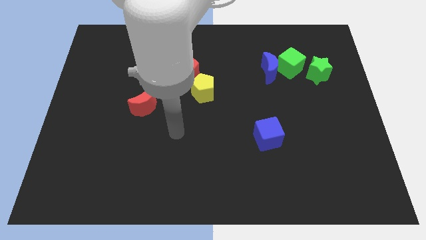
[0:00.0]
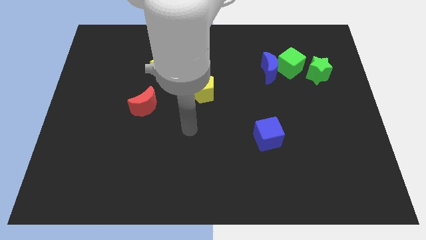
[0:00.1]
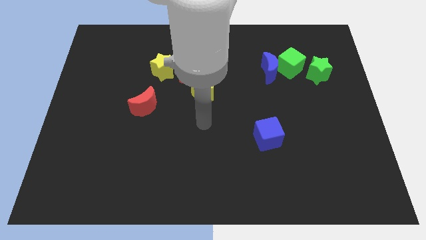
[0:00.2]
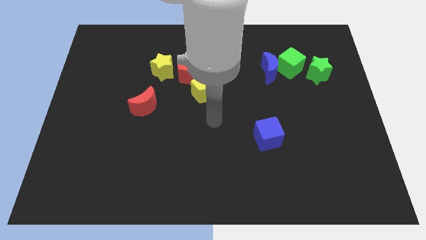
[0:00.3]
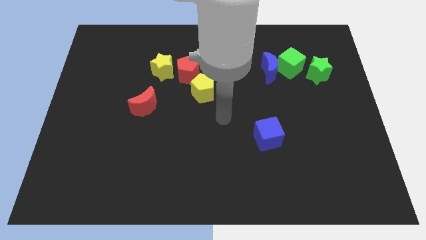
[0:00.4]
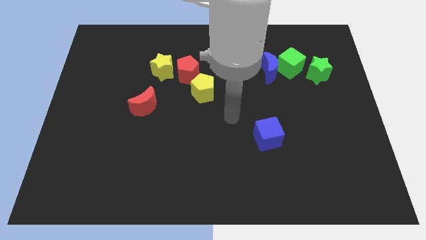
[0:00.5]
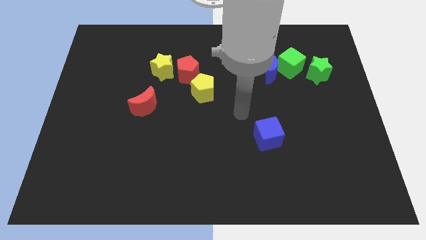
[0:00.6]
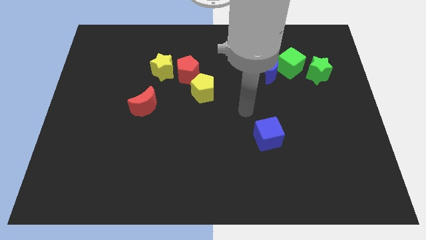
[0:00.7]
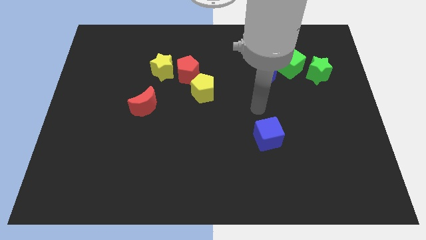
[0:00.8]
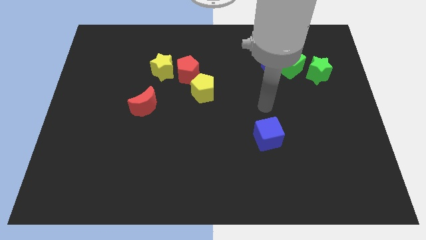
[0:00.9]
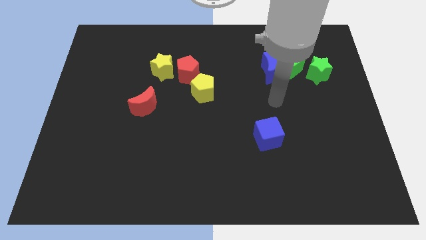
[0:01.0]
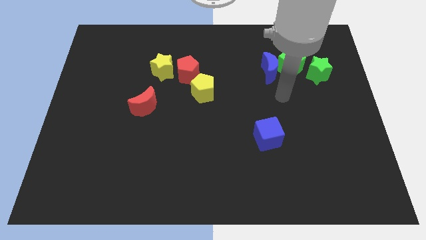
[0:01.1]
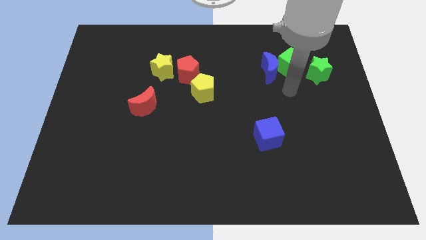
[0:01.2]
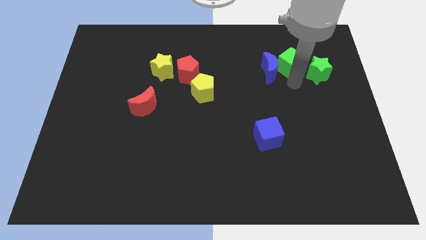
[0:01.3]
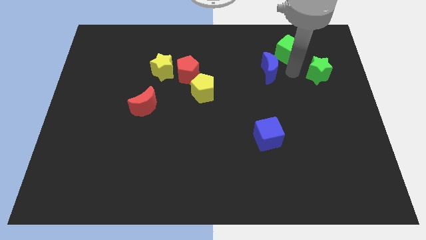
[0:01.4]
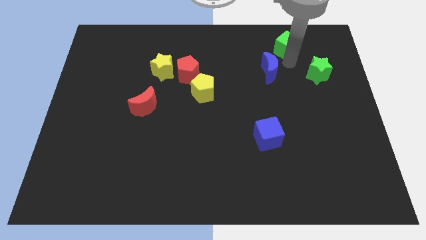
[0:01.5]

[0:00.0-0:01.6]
separate the blue moon from the green cube

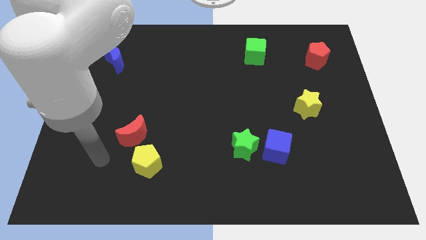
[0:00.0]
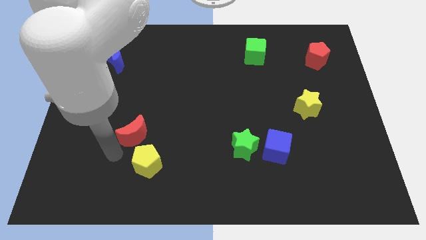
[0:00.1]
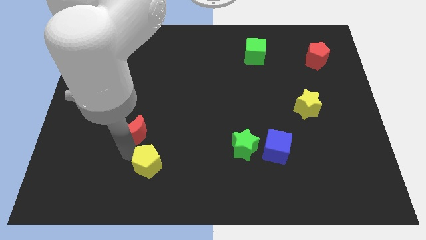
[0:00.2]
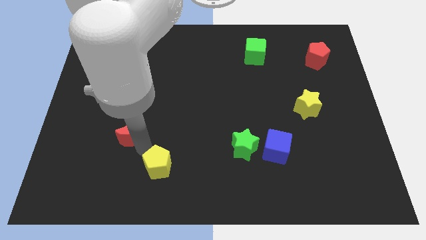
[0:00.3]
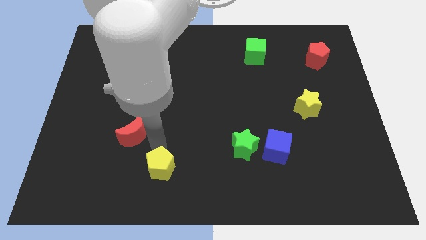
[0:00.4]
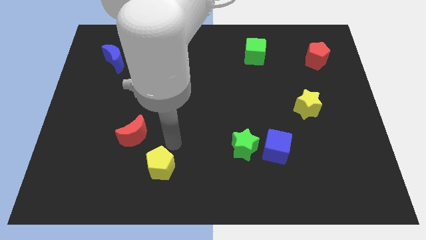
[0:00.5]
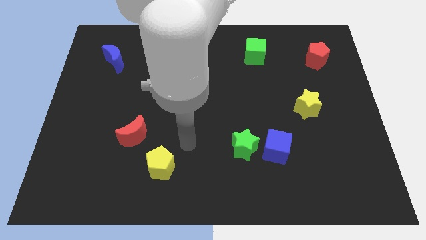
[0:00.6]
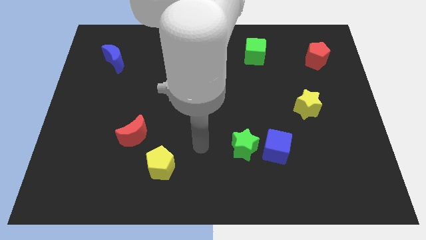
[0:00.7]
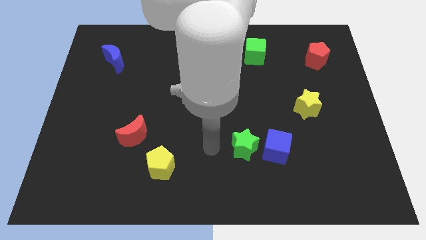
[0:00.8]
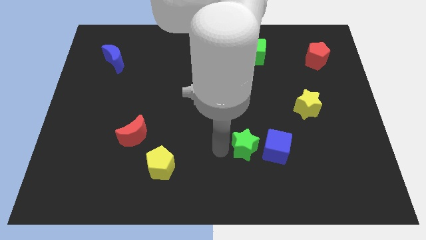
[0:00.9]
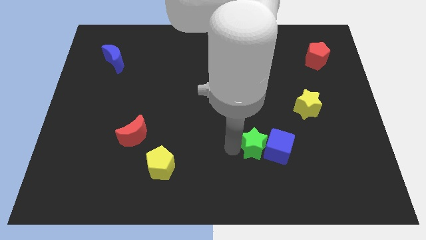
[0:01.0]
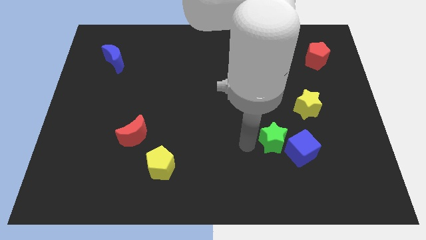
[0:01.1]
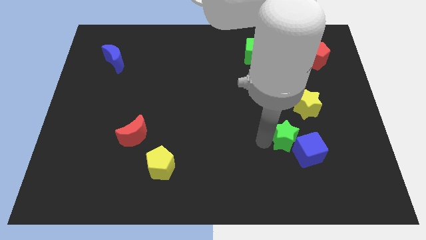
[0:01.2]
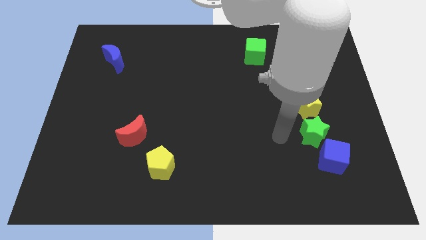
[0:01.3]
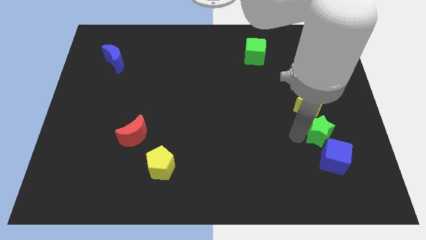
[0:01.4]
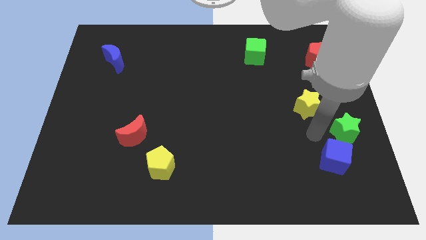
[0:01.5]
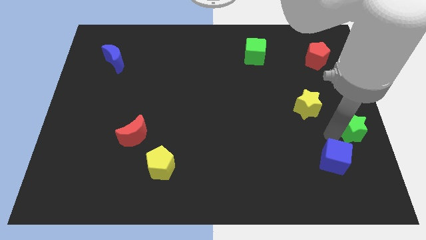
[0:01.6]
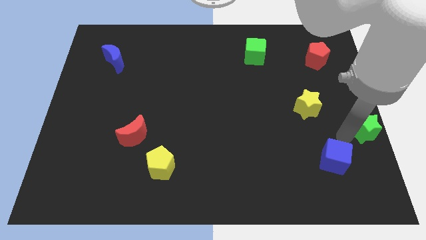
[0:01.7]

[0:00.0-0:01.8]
move the blue cube away from the green star

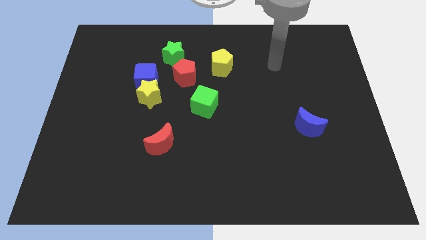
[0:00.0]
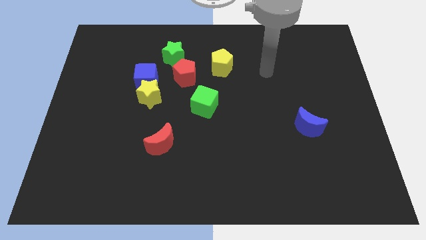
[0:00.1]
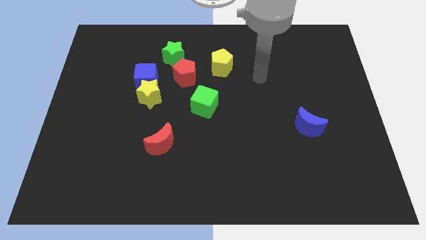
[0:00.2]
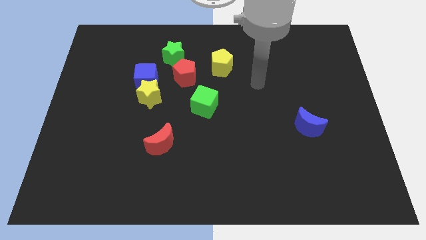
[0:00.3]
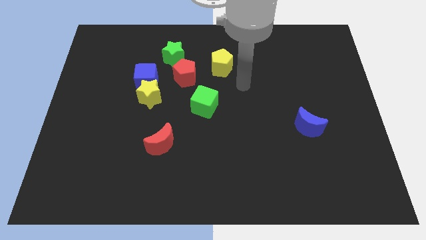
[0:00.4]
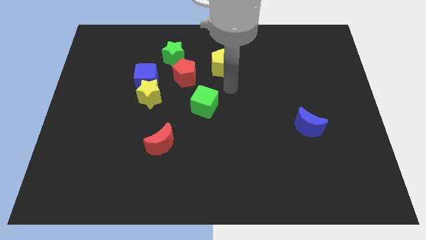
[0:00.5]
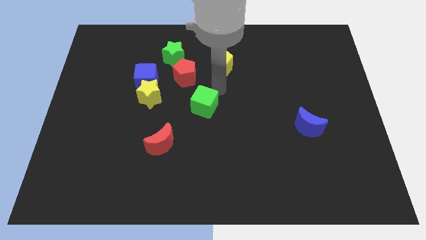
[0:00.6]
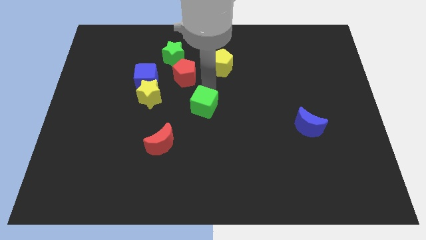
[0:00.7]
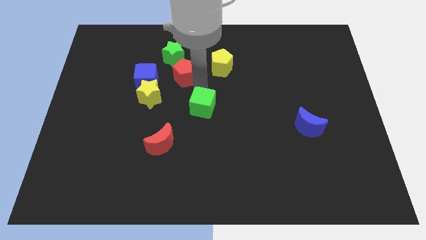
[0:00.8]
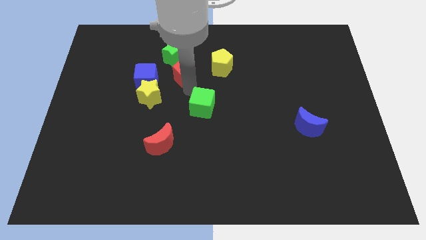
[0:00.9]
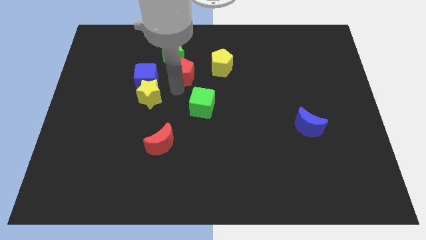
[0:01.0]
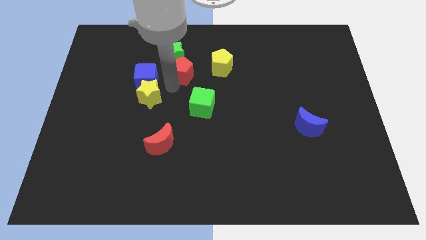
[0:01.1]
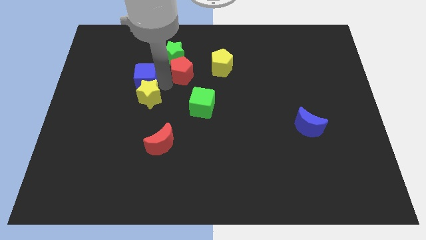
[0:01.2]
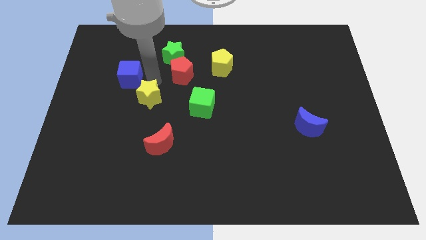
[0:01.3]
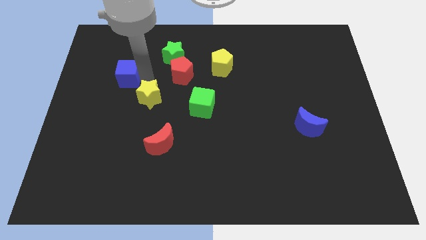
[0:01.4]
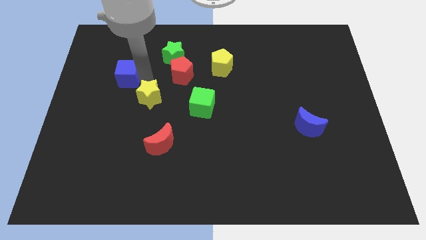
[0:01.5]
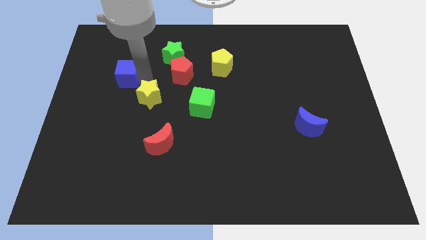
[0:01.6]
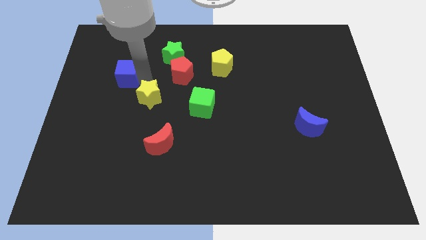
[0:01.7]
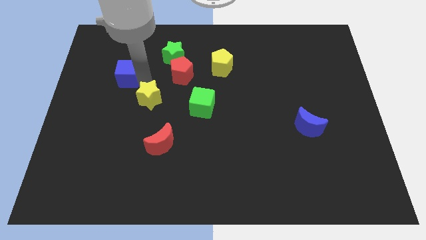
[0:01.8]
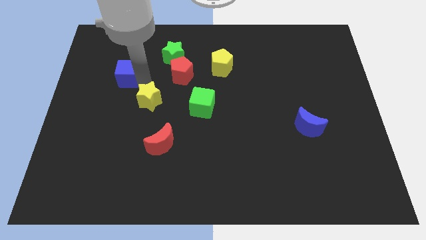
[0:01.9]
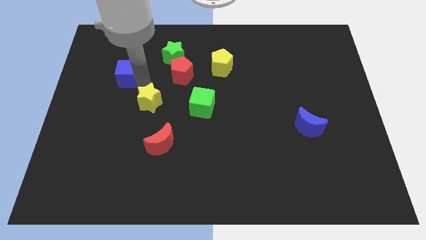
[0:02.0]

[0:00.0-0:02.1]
pull the yellow star apart from the blue cube

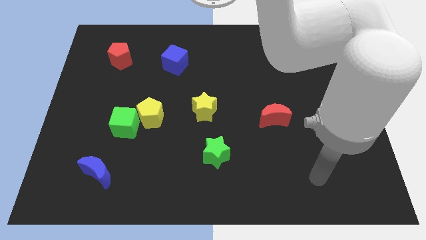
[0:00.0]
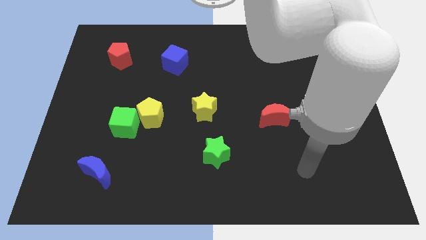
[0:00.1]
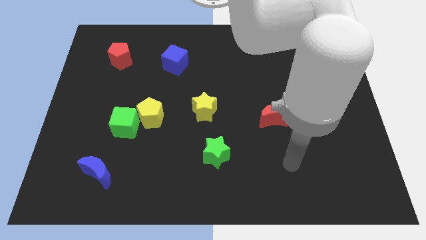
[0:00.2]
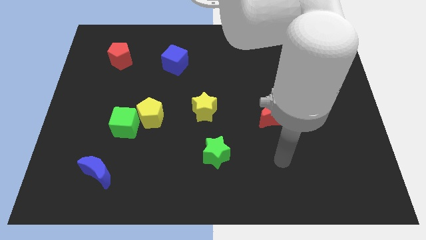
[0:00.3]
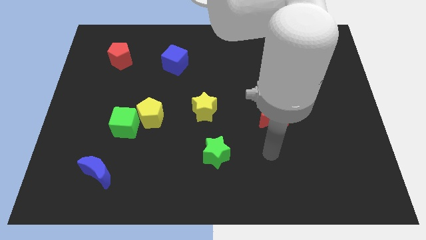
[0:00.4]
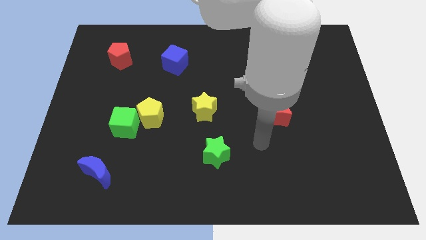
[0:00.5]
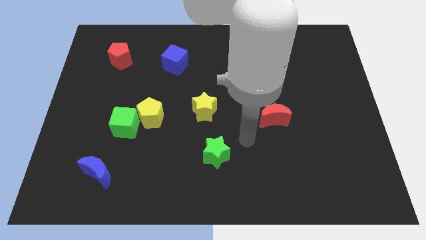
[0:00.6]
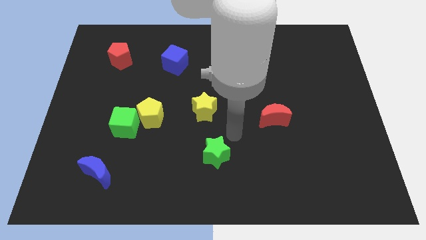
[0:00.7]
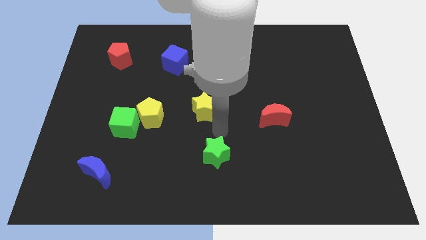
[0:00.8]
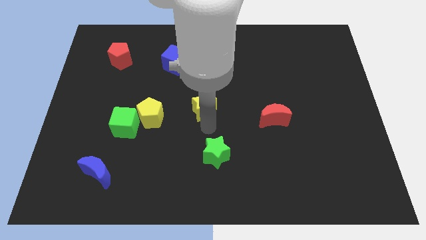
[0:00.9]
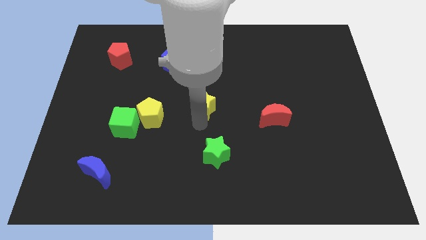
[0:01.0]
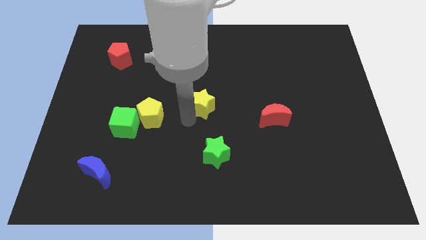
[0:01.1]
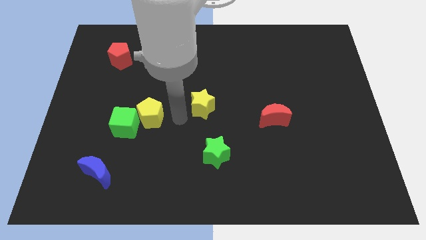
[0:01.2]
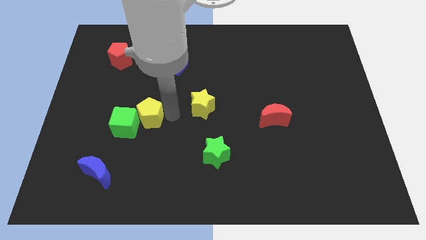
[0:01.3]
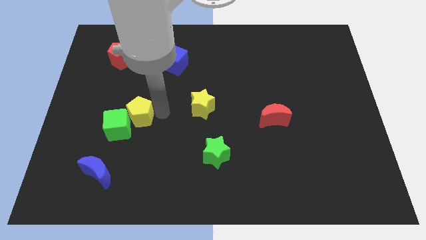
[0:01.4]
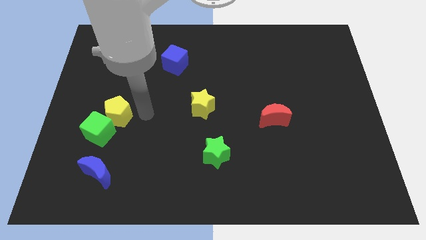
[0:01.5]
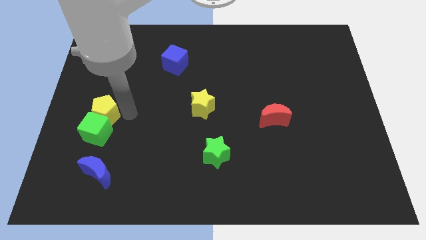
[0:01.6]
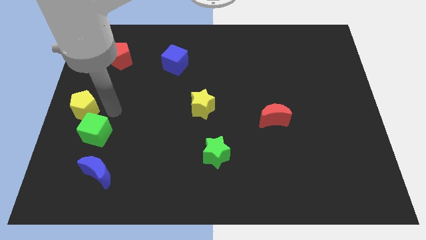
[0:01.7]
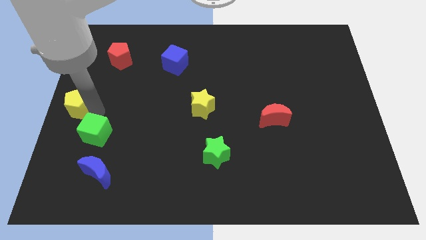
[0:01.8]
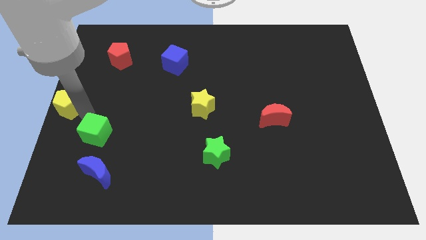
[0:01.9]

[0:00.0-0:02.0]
move the green cube away from the yellow pentagon

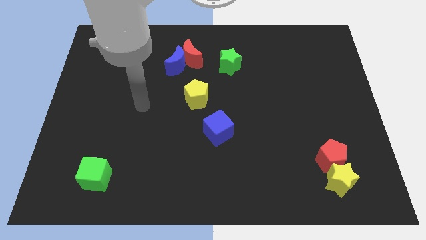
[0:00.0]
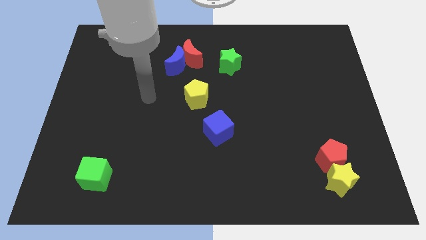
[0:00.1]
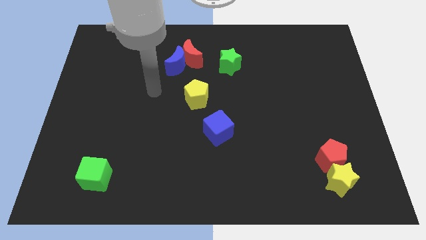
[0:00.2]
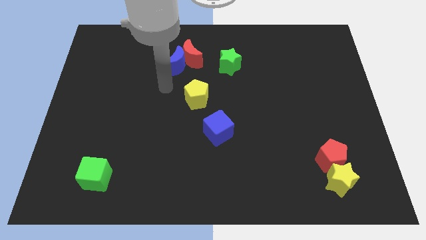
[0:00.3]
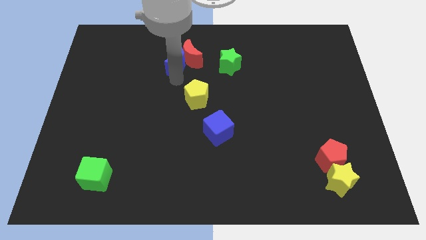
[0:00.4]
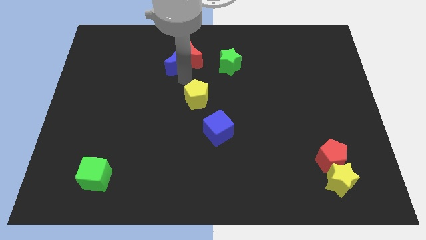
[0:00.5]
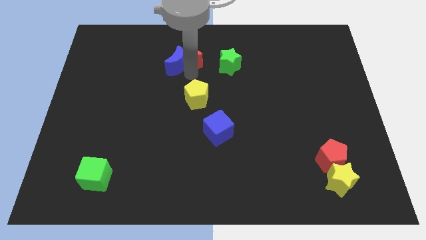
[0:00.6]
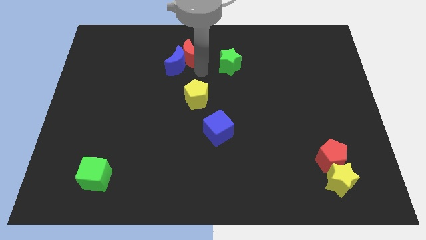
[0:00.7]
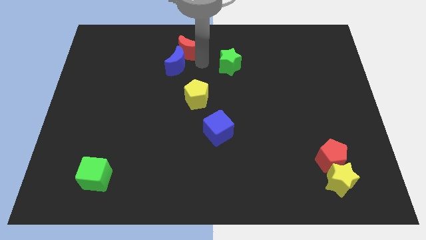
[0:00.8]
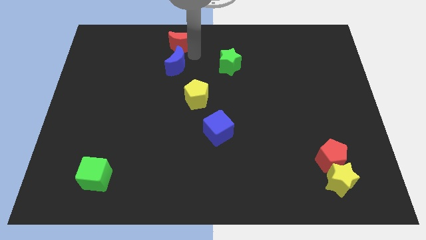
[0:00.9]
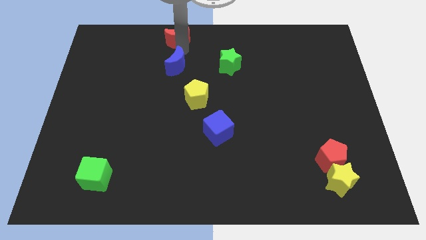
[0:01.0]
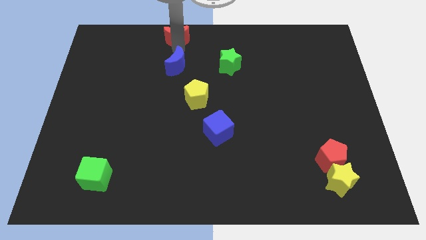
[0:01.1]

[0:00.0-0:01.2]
pull the blue moon apart from the red moon

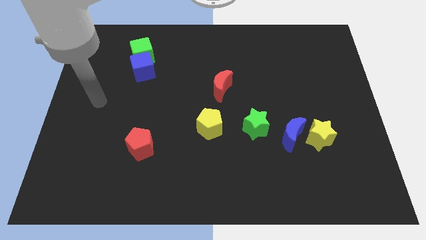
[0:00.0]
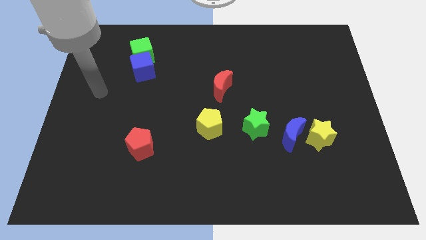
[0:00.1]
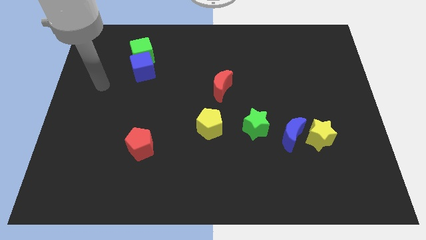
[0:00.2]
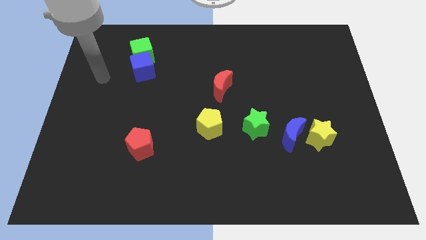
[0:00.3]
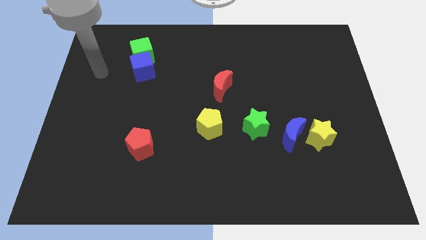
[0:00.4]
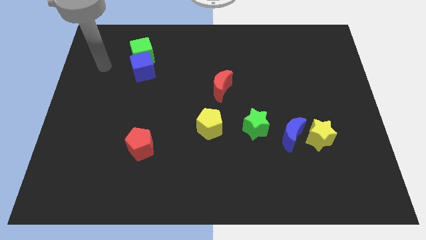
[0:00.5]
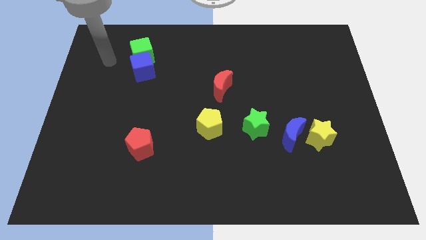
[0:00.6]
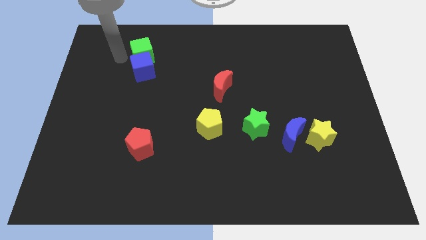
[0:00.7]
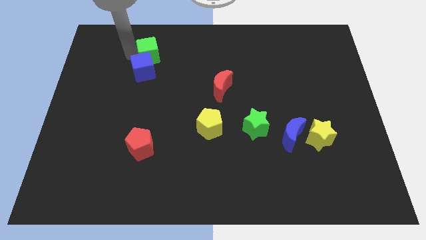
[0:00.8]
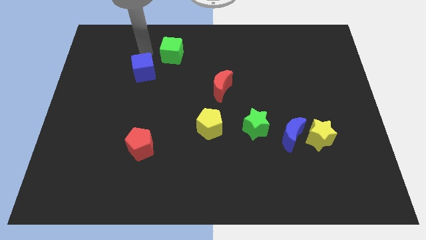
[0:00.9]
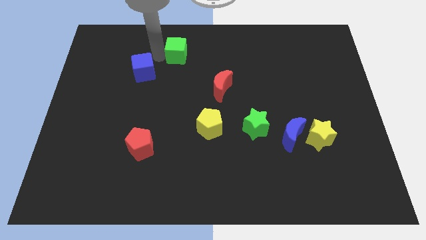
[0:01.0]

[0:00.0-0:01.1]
move the blue cube away from the green cube